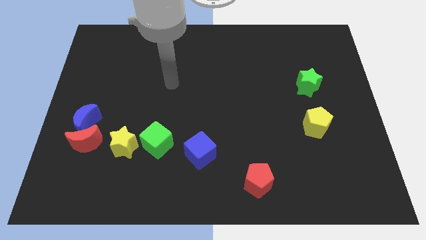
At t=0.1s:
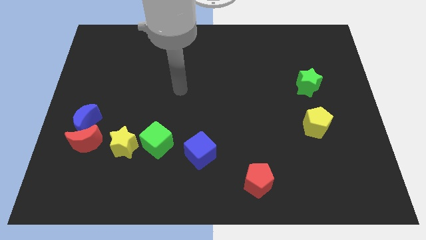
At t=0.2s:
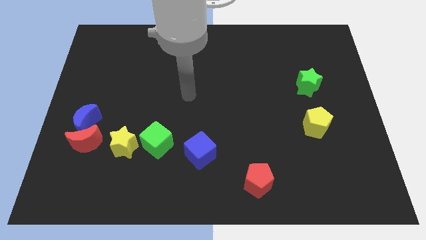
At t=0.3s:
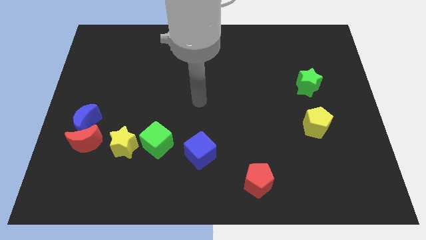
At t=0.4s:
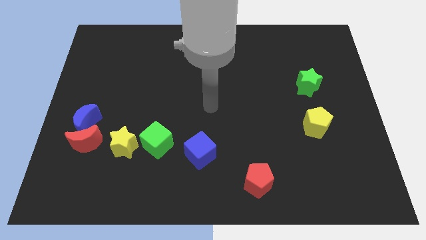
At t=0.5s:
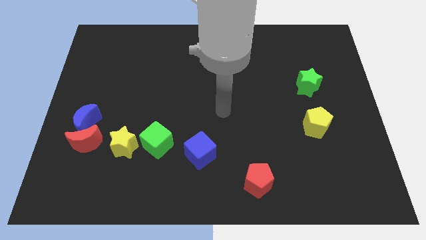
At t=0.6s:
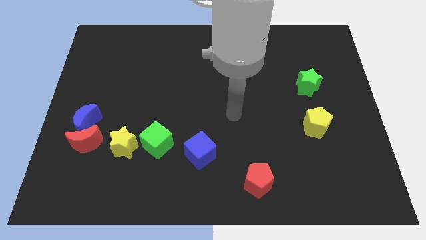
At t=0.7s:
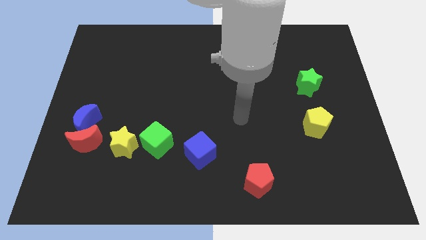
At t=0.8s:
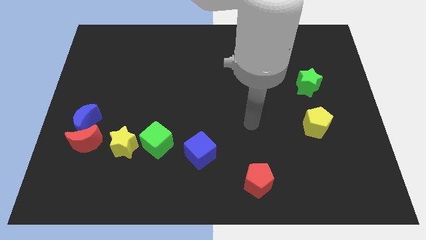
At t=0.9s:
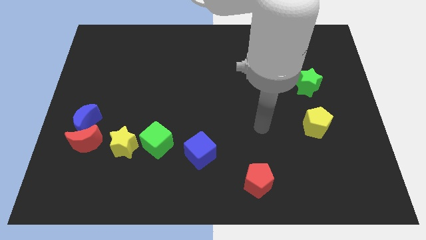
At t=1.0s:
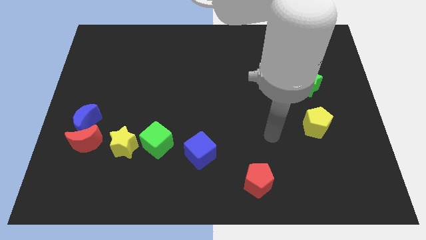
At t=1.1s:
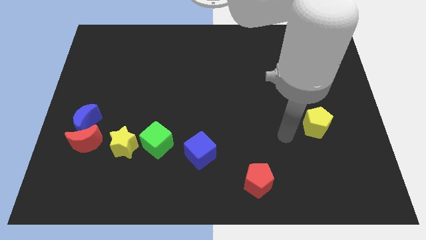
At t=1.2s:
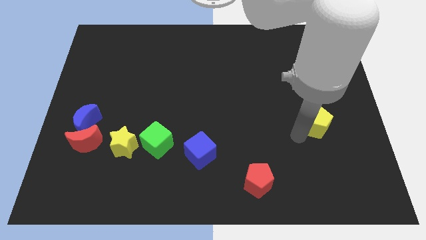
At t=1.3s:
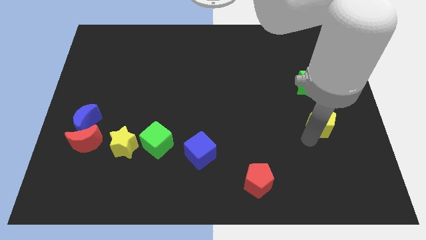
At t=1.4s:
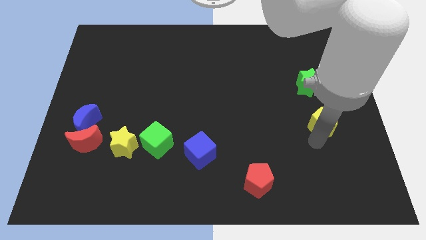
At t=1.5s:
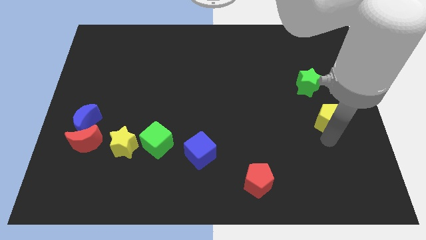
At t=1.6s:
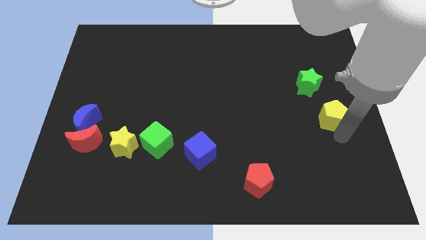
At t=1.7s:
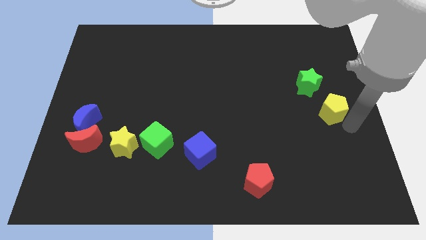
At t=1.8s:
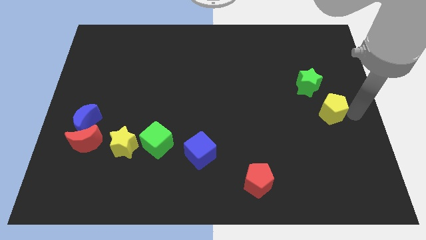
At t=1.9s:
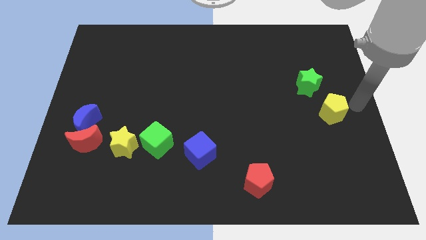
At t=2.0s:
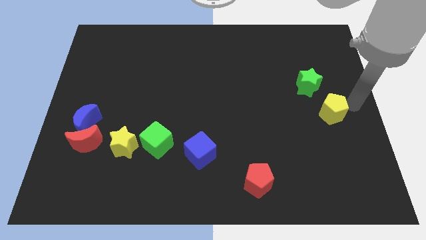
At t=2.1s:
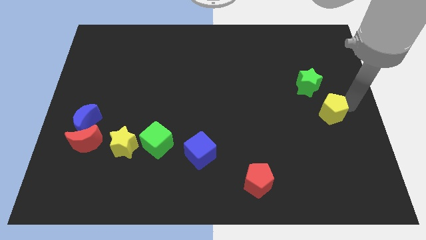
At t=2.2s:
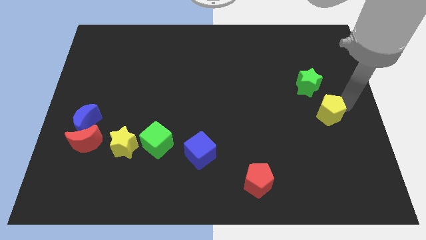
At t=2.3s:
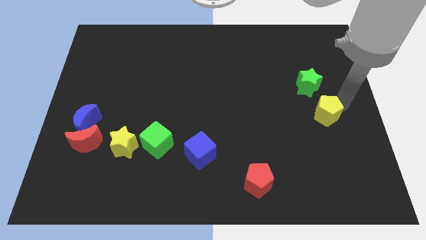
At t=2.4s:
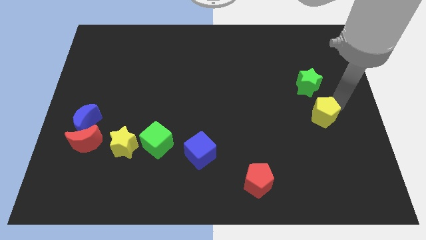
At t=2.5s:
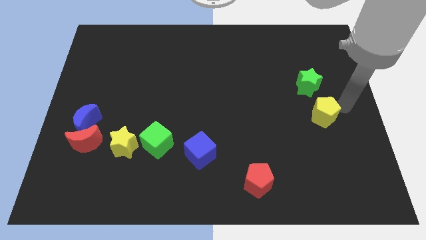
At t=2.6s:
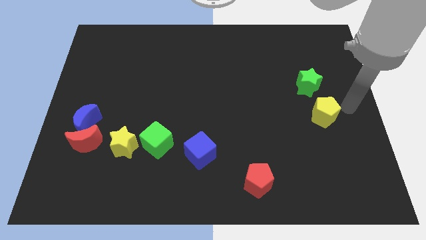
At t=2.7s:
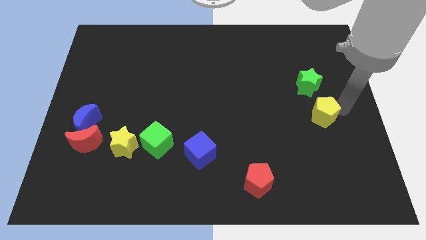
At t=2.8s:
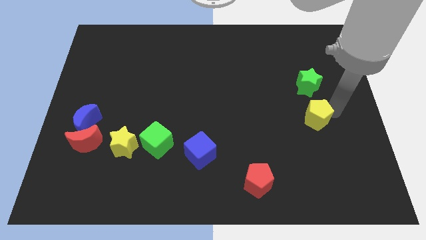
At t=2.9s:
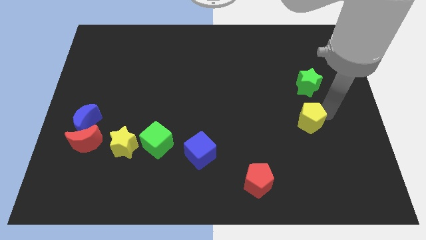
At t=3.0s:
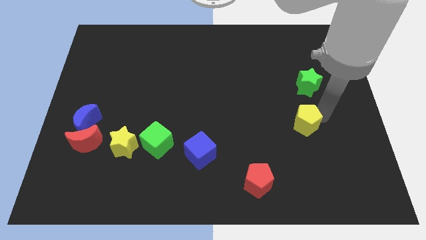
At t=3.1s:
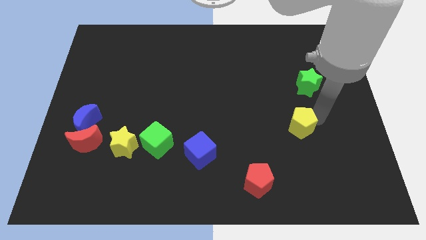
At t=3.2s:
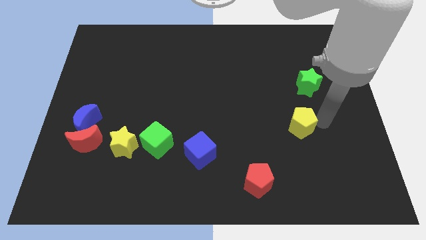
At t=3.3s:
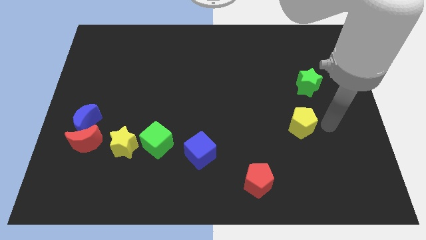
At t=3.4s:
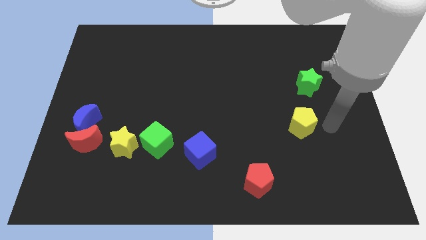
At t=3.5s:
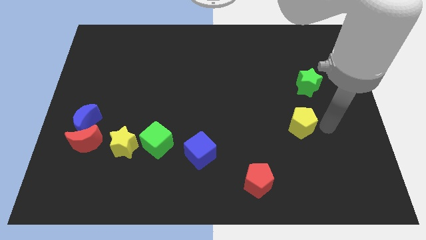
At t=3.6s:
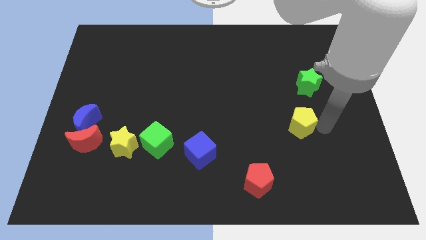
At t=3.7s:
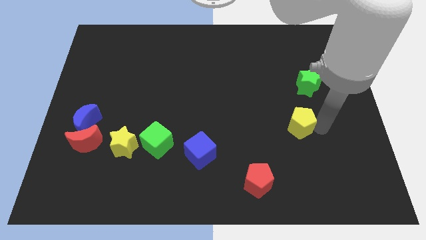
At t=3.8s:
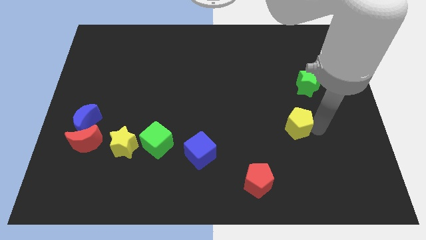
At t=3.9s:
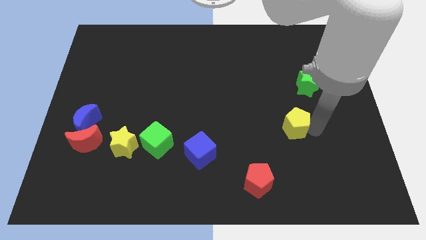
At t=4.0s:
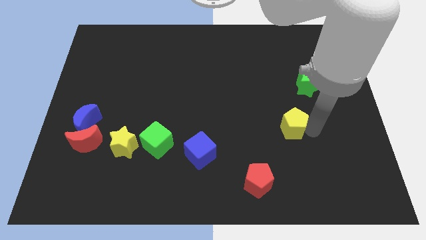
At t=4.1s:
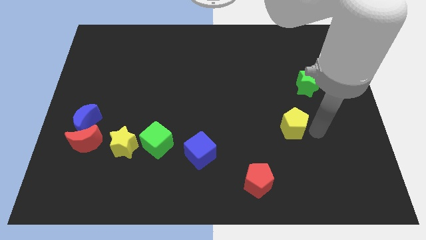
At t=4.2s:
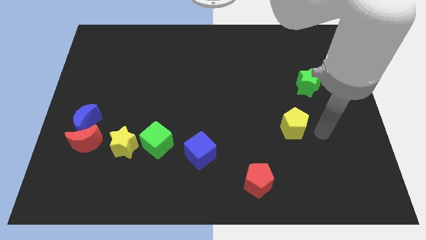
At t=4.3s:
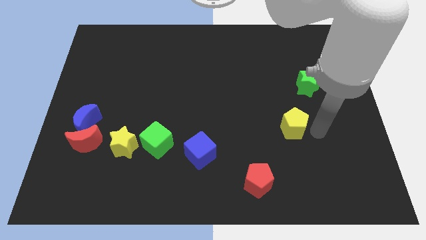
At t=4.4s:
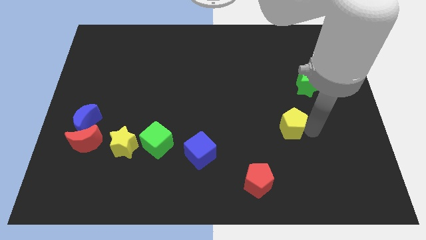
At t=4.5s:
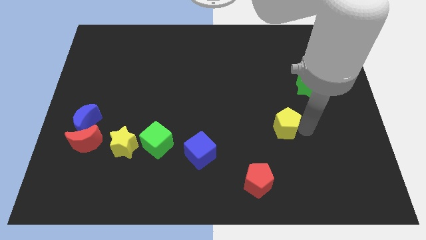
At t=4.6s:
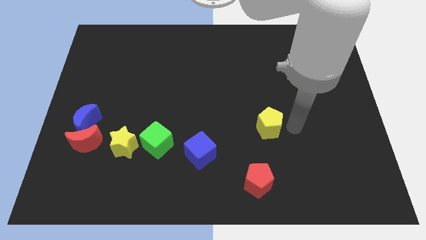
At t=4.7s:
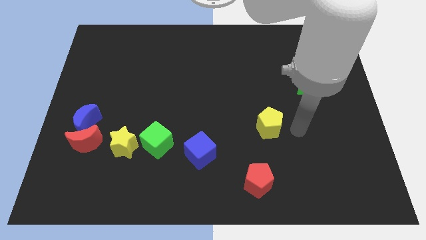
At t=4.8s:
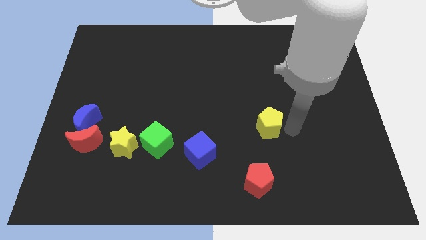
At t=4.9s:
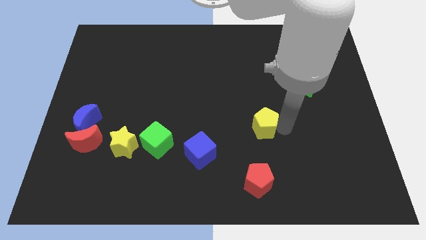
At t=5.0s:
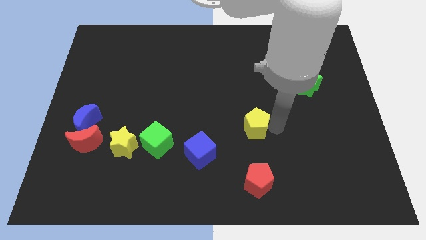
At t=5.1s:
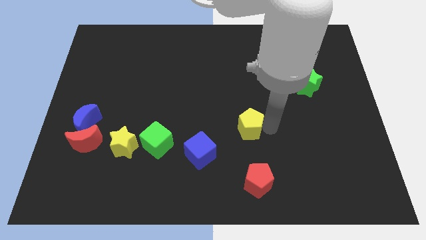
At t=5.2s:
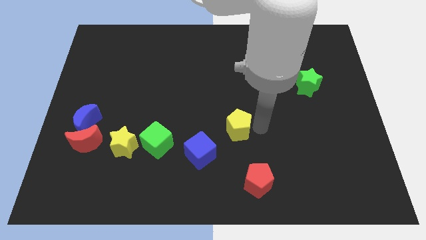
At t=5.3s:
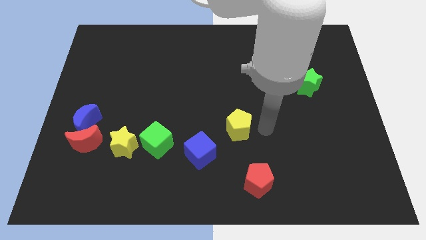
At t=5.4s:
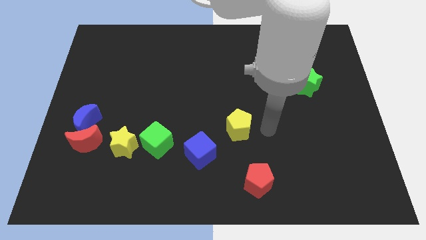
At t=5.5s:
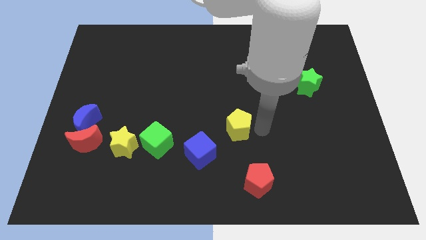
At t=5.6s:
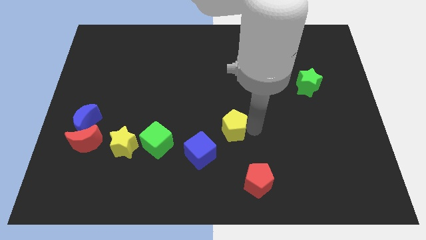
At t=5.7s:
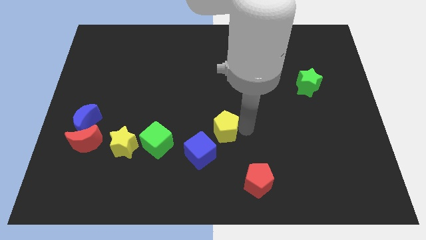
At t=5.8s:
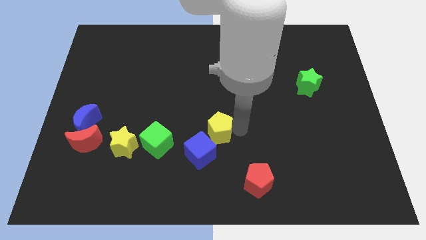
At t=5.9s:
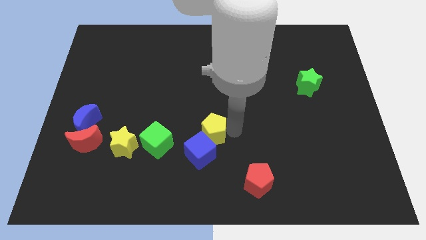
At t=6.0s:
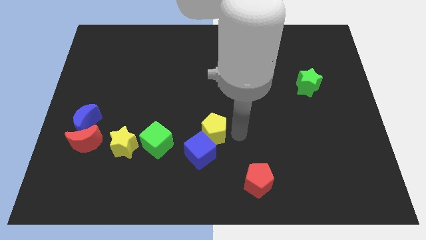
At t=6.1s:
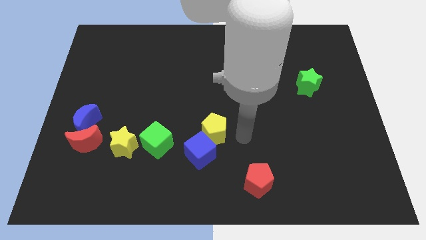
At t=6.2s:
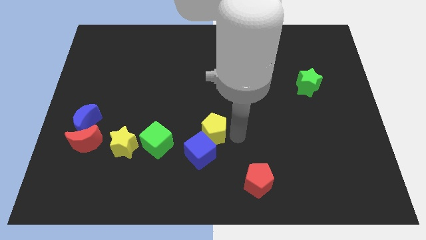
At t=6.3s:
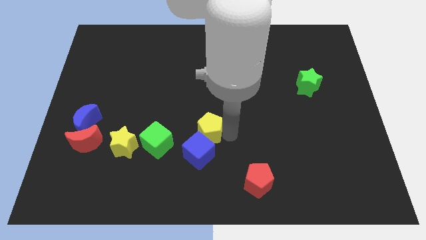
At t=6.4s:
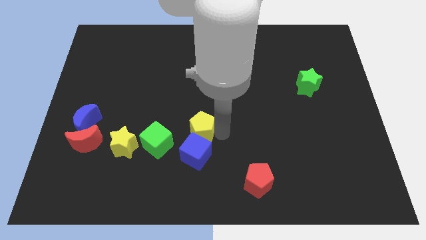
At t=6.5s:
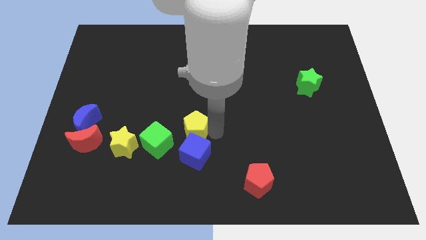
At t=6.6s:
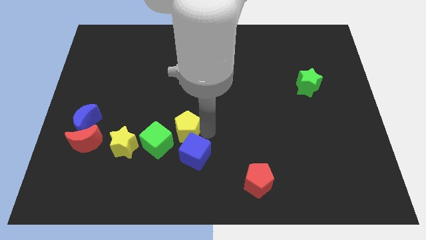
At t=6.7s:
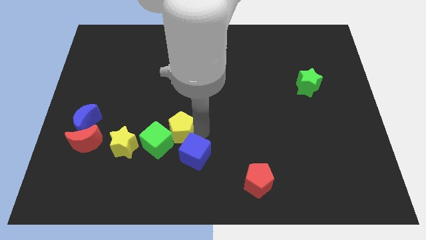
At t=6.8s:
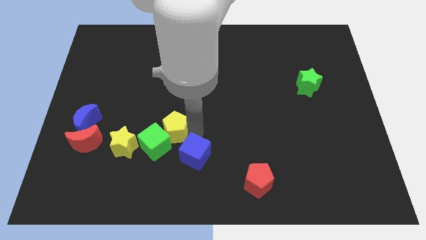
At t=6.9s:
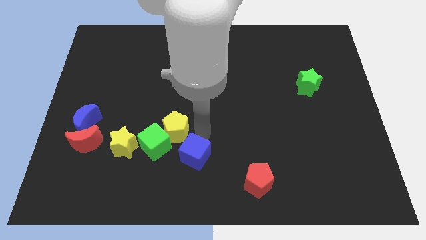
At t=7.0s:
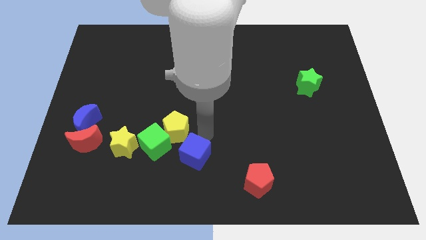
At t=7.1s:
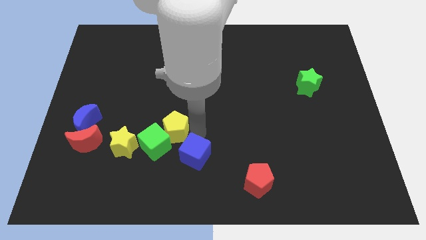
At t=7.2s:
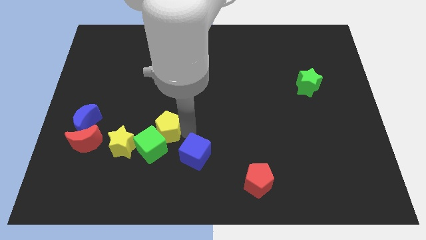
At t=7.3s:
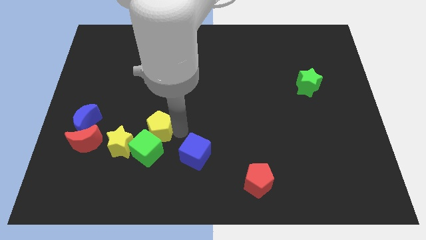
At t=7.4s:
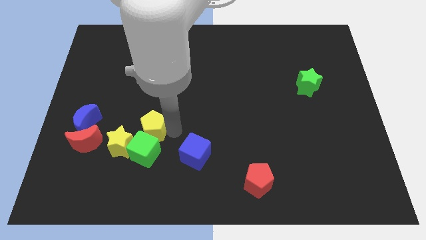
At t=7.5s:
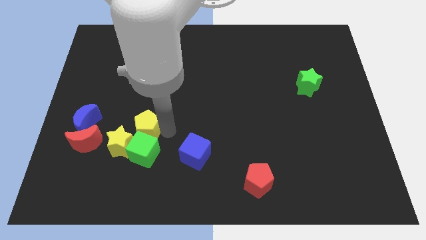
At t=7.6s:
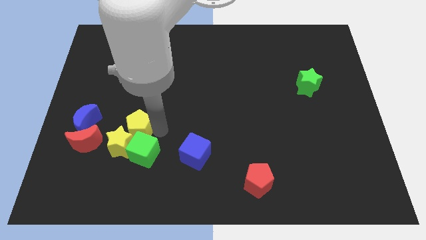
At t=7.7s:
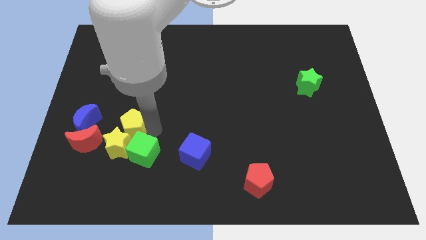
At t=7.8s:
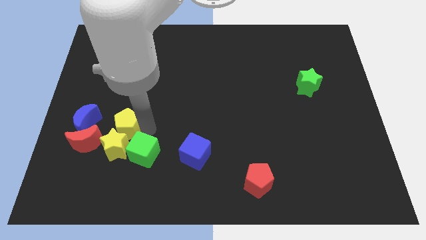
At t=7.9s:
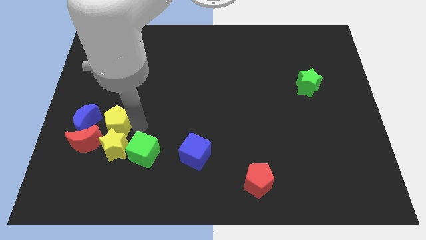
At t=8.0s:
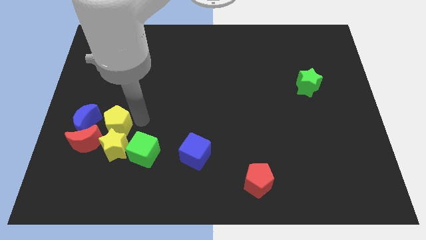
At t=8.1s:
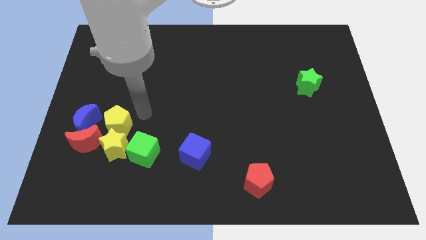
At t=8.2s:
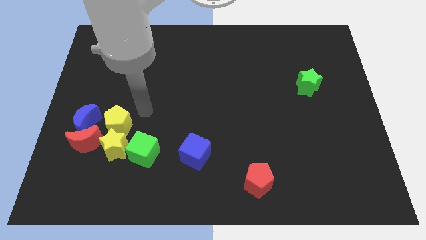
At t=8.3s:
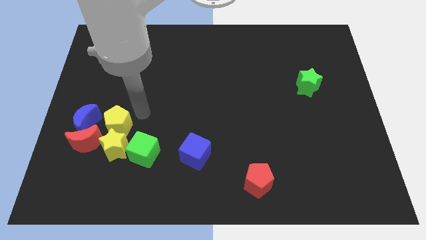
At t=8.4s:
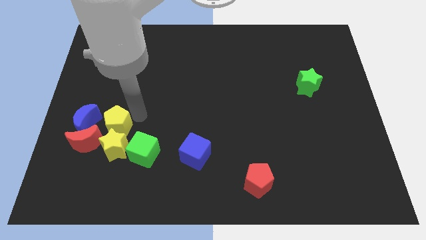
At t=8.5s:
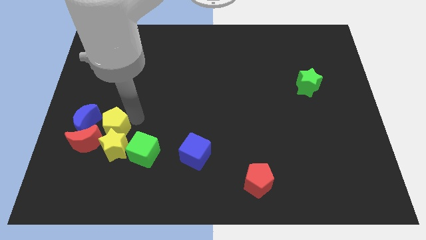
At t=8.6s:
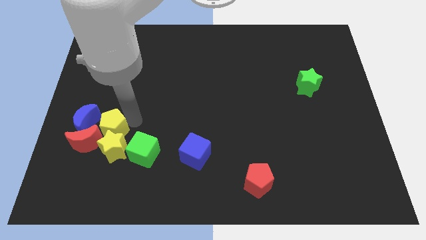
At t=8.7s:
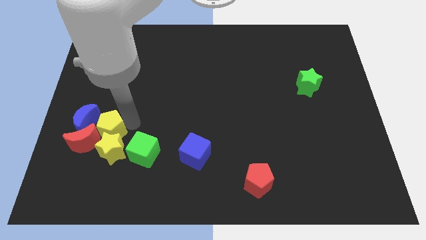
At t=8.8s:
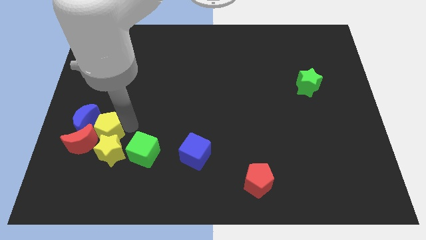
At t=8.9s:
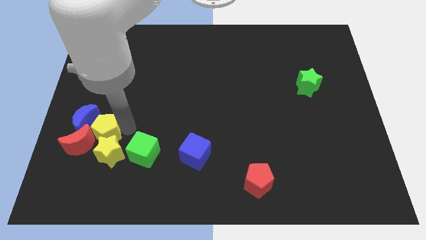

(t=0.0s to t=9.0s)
push the yellow pentagon to the red moon
